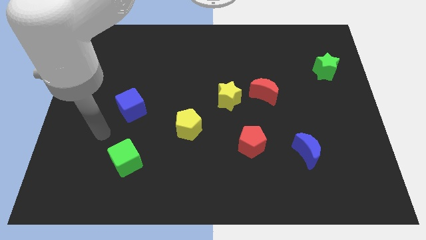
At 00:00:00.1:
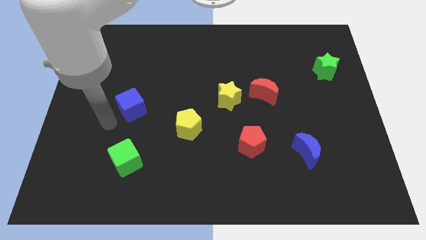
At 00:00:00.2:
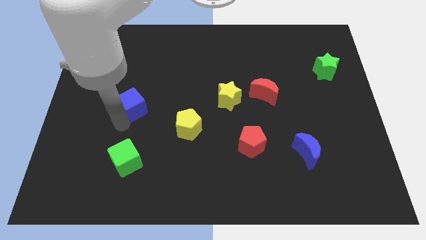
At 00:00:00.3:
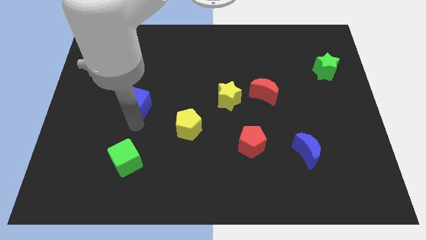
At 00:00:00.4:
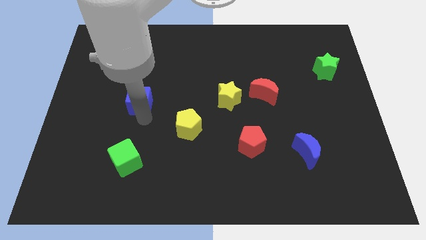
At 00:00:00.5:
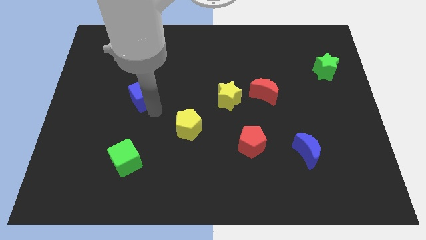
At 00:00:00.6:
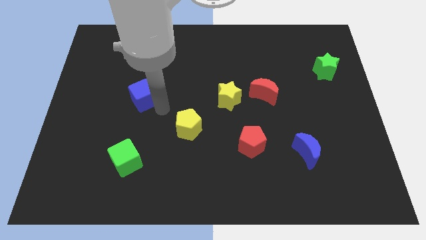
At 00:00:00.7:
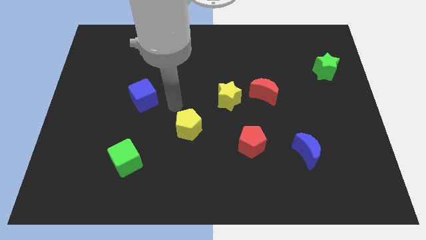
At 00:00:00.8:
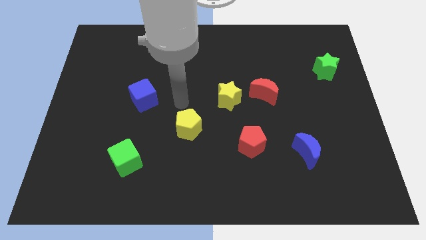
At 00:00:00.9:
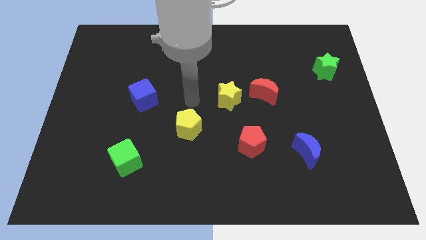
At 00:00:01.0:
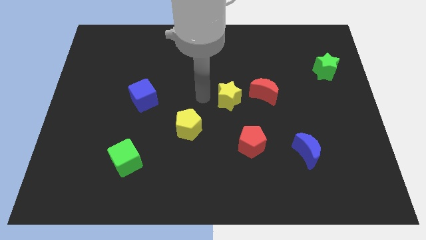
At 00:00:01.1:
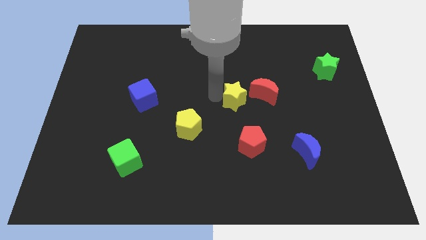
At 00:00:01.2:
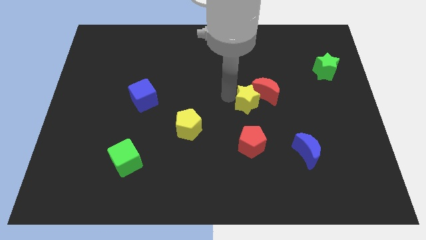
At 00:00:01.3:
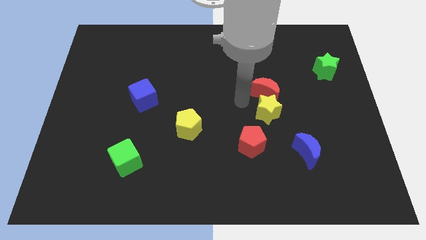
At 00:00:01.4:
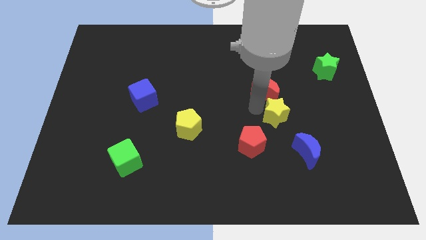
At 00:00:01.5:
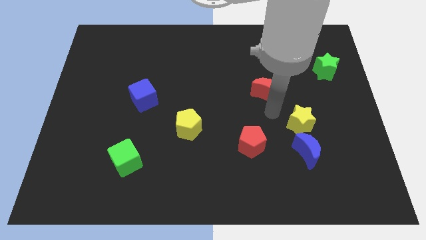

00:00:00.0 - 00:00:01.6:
separate the red moon from the yellow star

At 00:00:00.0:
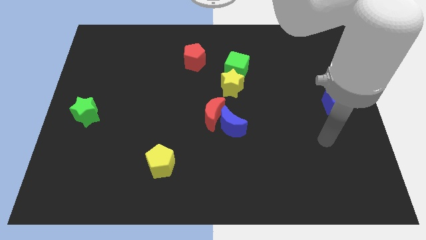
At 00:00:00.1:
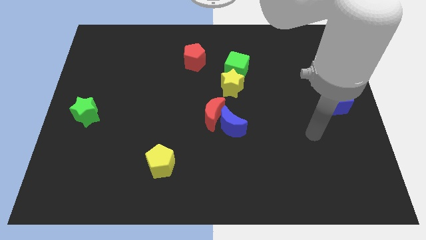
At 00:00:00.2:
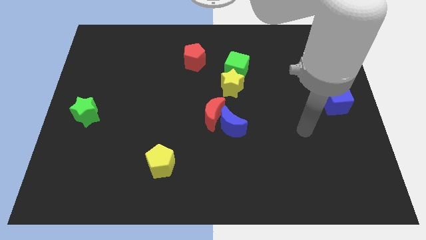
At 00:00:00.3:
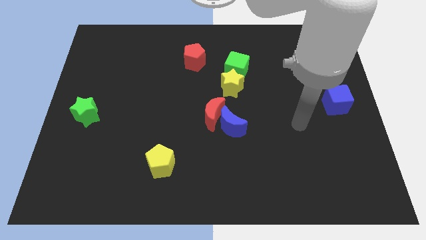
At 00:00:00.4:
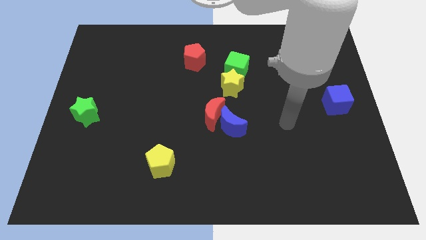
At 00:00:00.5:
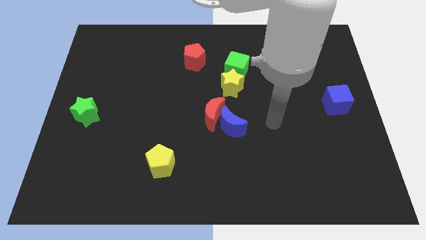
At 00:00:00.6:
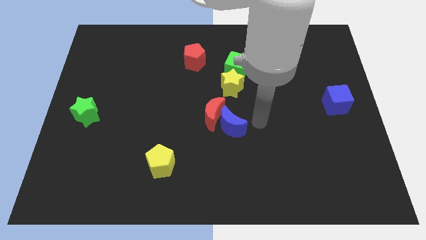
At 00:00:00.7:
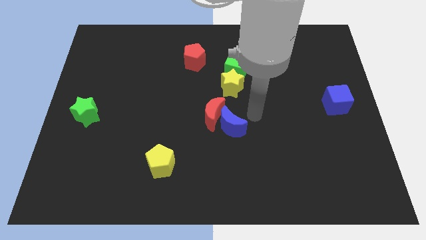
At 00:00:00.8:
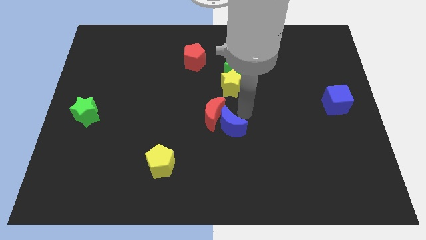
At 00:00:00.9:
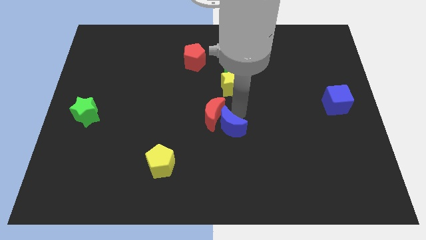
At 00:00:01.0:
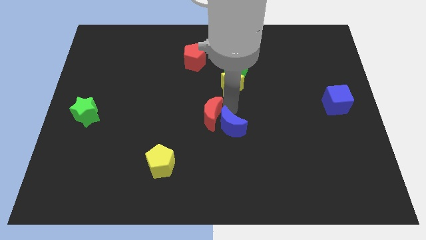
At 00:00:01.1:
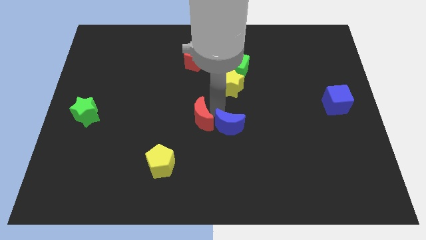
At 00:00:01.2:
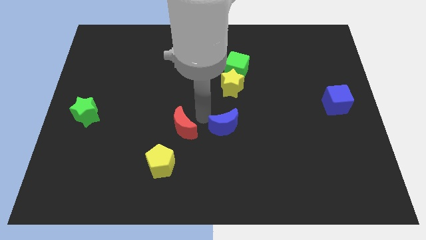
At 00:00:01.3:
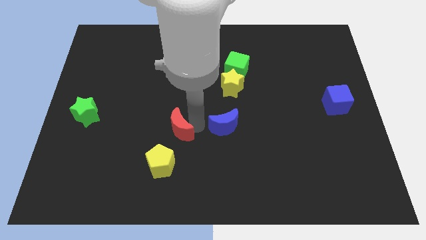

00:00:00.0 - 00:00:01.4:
separate the blue moon from the red moon

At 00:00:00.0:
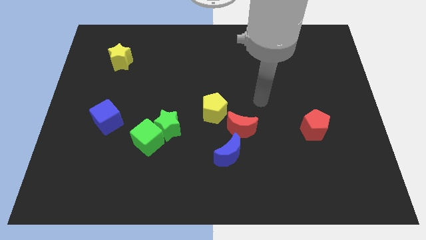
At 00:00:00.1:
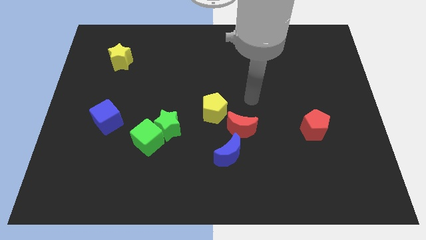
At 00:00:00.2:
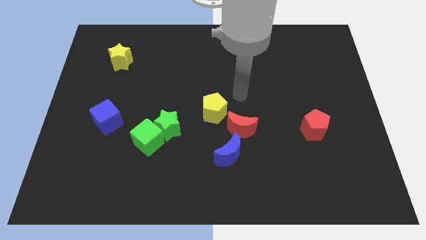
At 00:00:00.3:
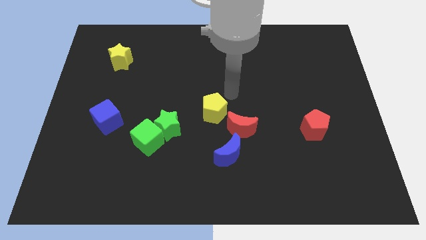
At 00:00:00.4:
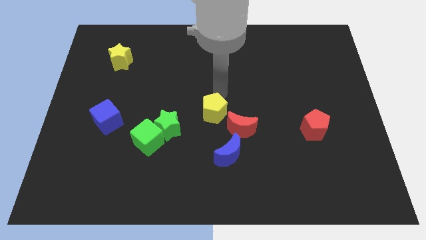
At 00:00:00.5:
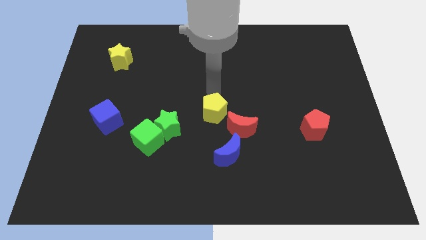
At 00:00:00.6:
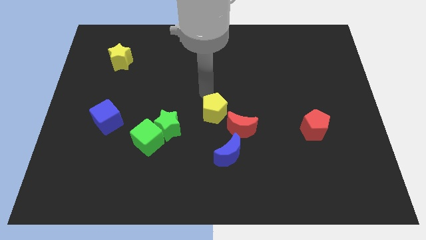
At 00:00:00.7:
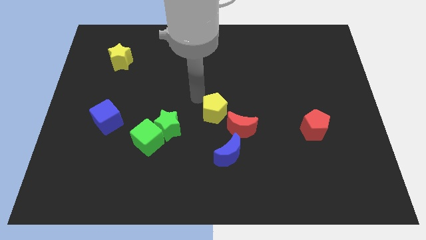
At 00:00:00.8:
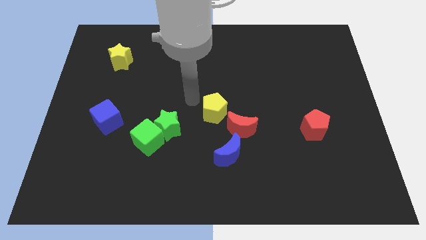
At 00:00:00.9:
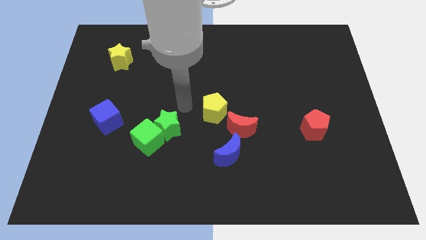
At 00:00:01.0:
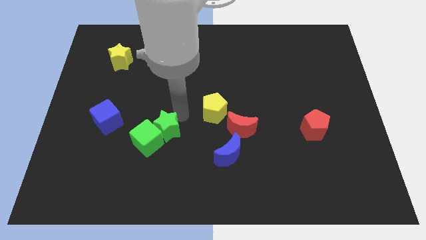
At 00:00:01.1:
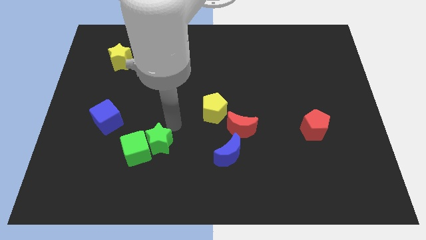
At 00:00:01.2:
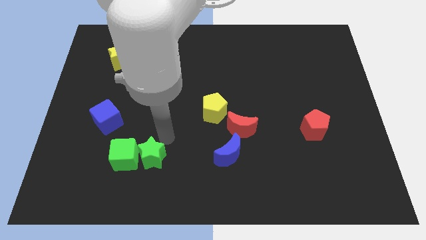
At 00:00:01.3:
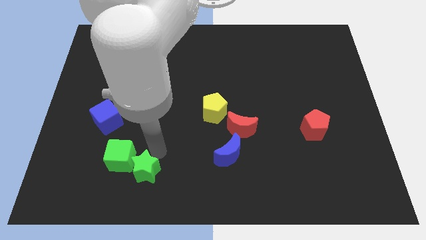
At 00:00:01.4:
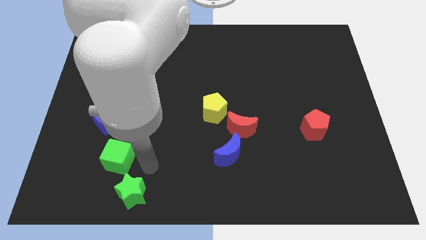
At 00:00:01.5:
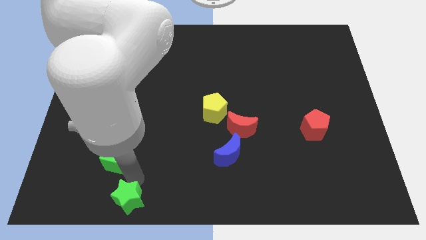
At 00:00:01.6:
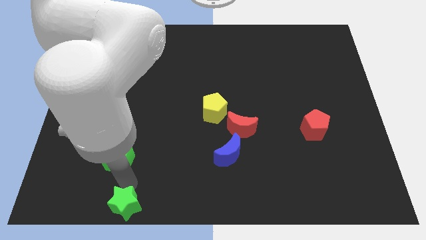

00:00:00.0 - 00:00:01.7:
separate the green cube from the green star

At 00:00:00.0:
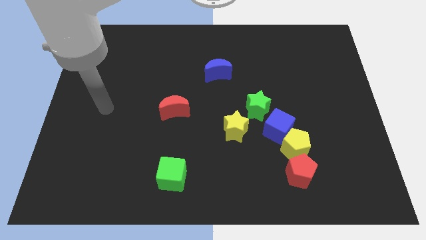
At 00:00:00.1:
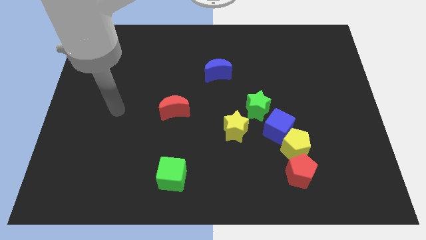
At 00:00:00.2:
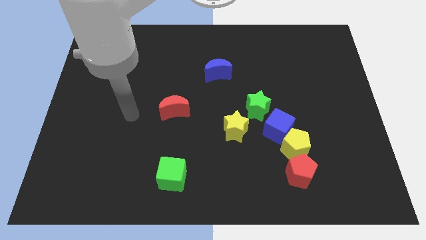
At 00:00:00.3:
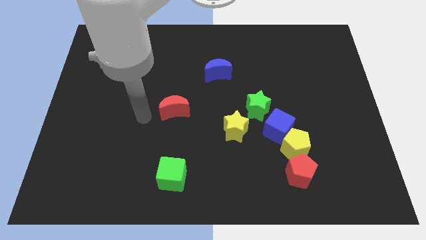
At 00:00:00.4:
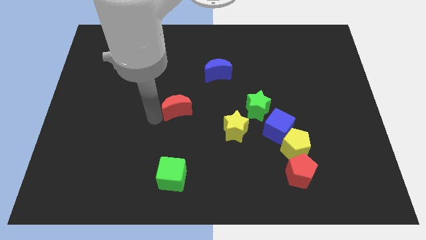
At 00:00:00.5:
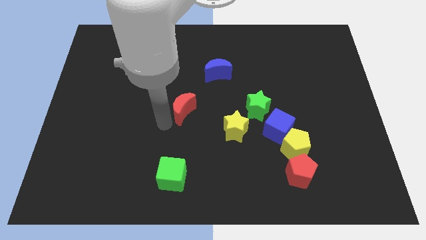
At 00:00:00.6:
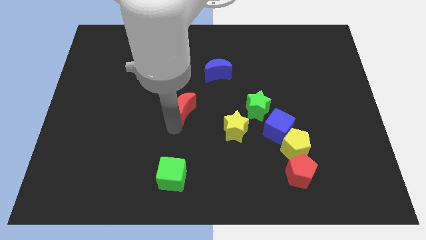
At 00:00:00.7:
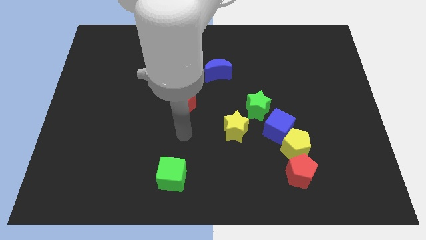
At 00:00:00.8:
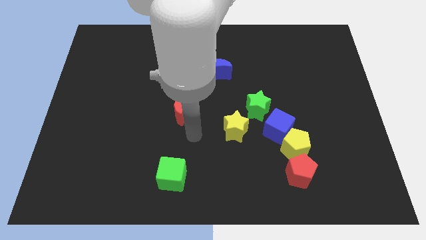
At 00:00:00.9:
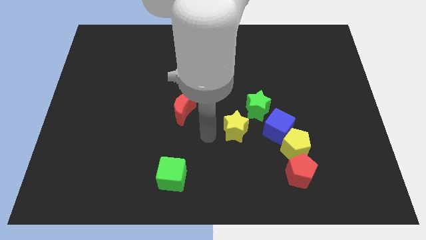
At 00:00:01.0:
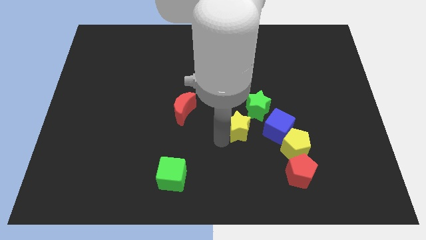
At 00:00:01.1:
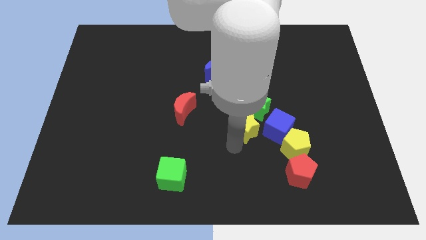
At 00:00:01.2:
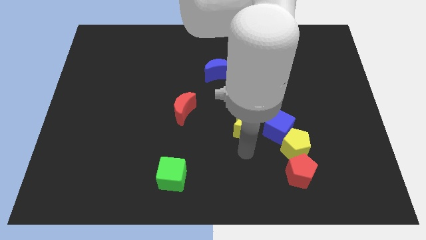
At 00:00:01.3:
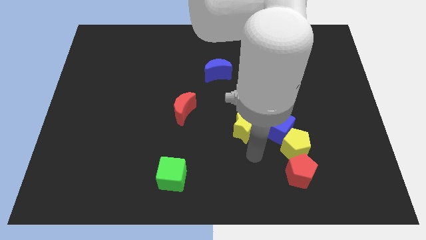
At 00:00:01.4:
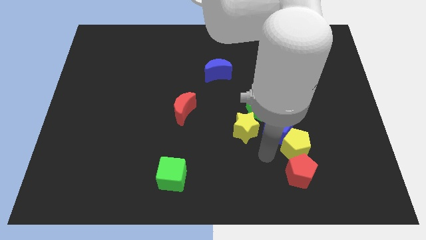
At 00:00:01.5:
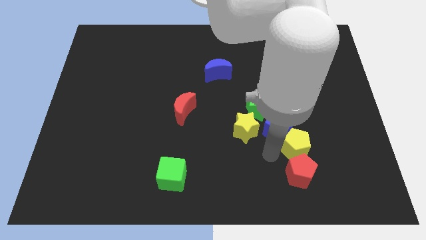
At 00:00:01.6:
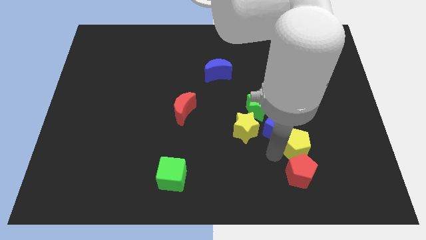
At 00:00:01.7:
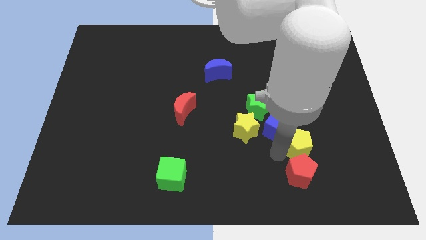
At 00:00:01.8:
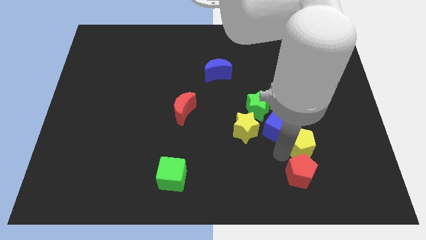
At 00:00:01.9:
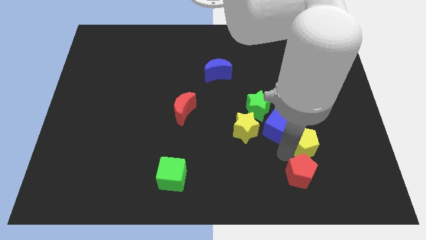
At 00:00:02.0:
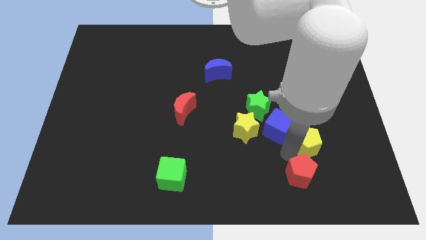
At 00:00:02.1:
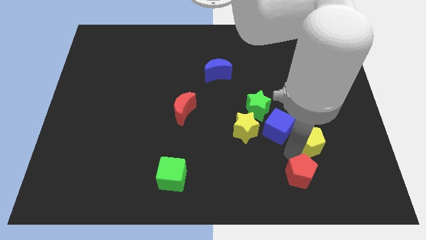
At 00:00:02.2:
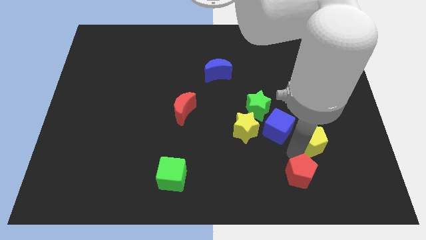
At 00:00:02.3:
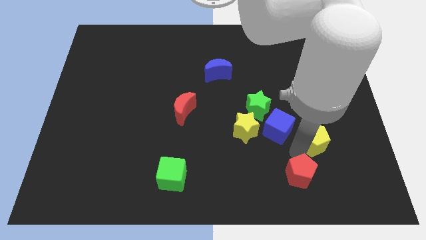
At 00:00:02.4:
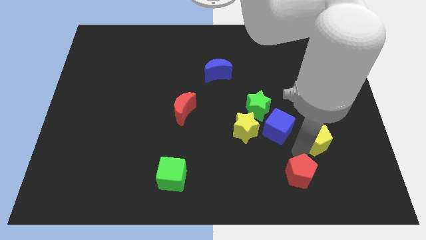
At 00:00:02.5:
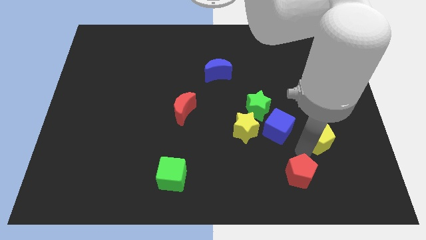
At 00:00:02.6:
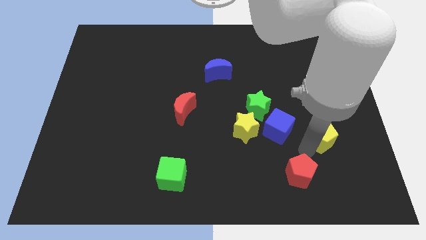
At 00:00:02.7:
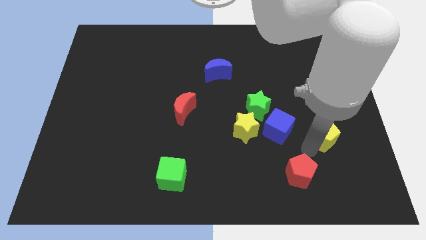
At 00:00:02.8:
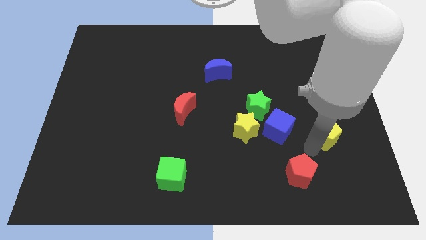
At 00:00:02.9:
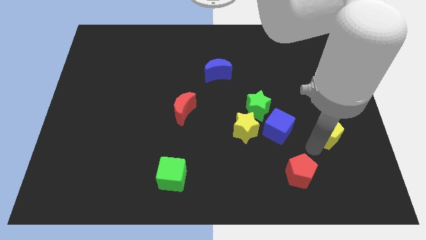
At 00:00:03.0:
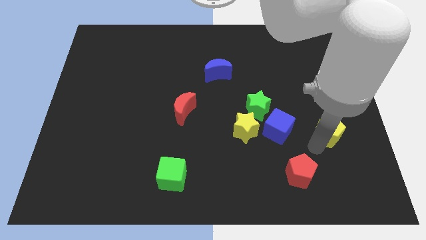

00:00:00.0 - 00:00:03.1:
move the yellow pentagon away from the blue cube and red pentagon

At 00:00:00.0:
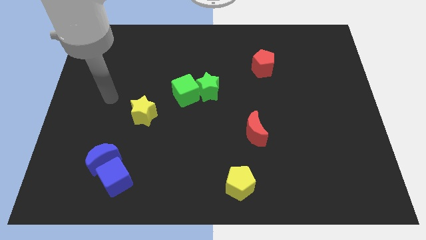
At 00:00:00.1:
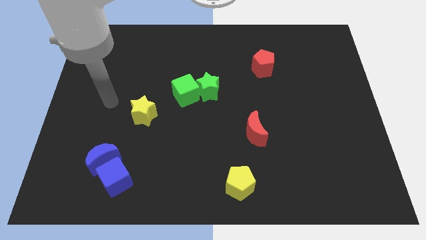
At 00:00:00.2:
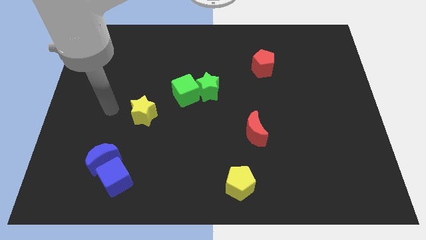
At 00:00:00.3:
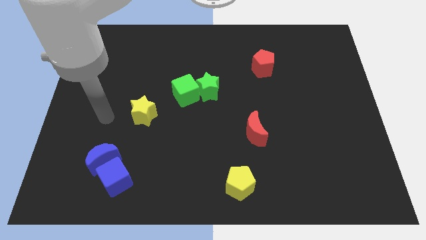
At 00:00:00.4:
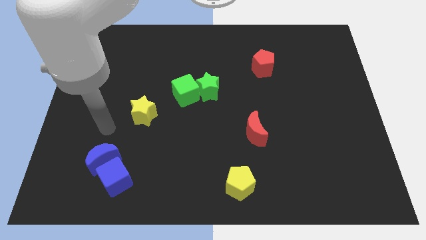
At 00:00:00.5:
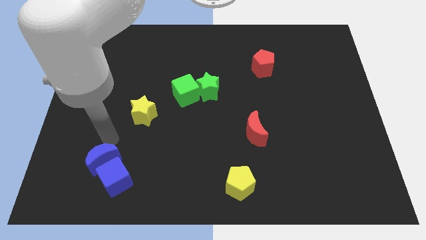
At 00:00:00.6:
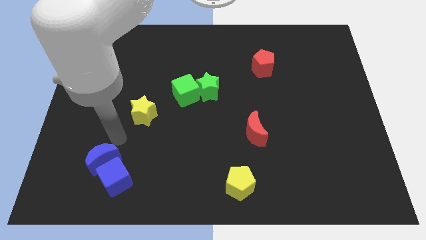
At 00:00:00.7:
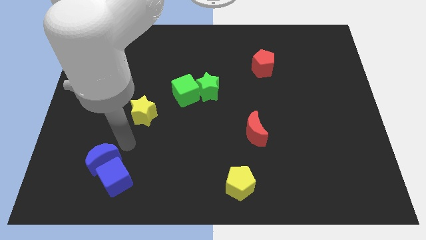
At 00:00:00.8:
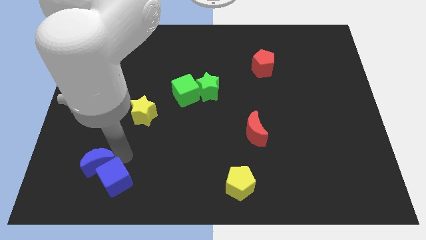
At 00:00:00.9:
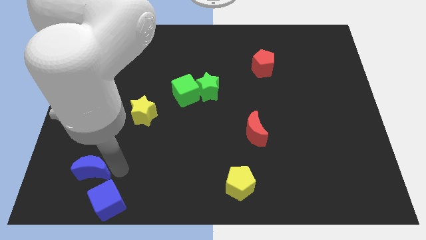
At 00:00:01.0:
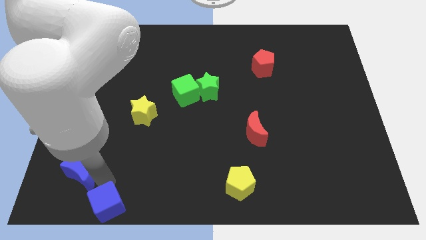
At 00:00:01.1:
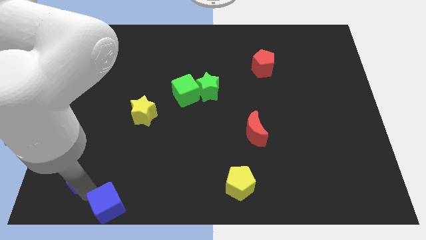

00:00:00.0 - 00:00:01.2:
move the blue moon away from the blue cube

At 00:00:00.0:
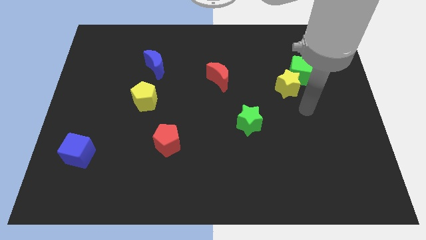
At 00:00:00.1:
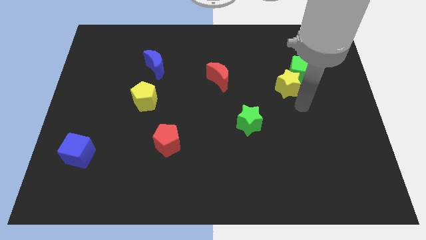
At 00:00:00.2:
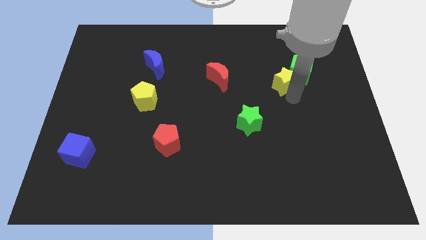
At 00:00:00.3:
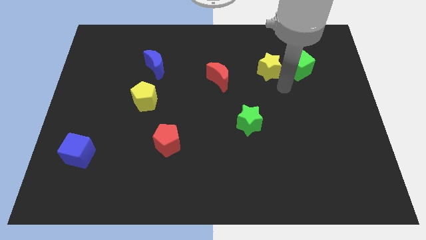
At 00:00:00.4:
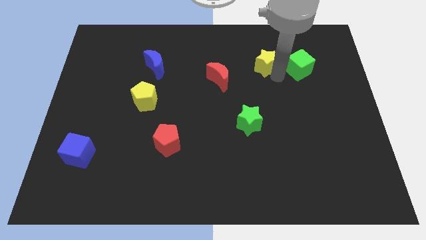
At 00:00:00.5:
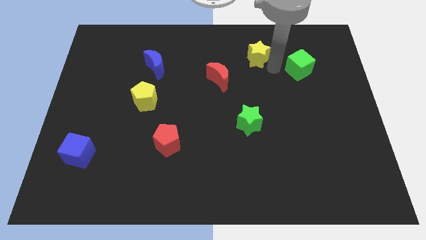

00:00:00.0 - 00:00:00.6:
move the green cube away from the yellow star
